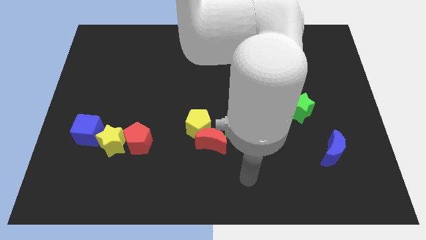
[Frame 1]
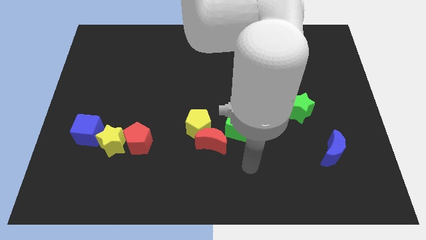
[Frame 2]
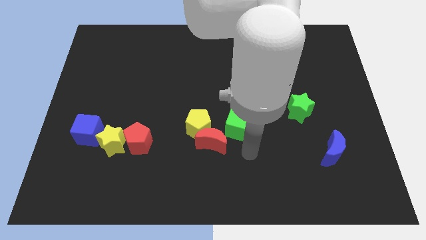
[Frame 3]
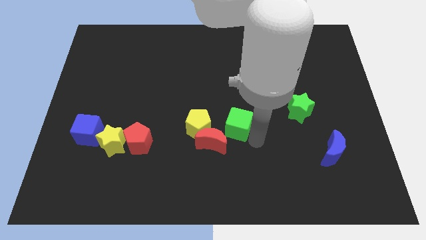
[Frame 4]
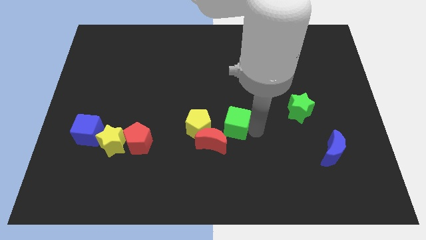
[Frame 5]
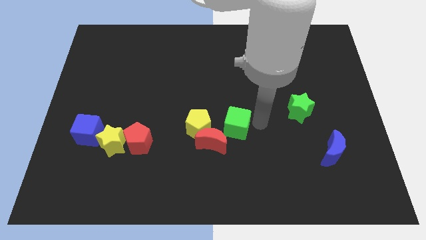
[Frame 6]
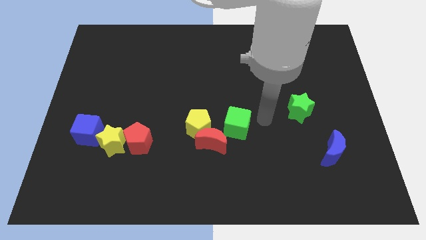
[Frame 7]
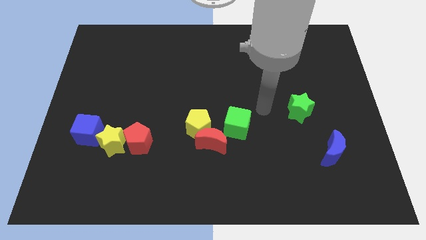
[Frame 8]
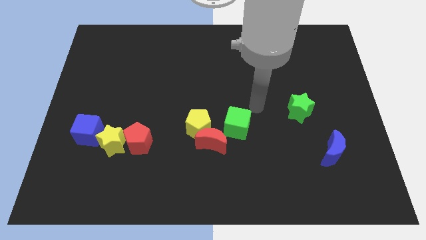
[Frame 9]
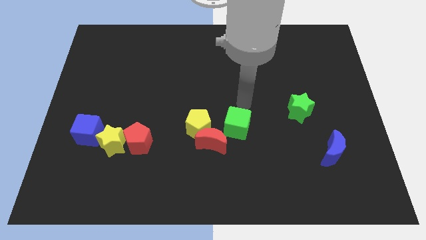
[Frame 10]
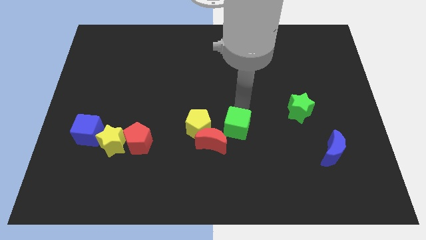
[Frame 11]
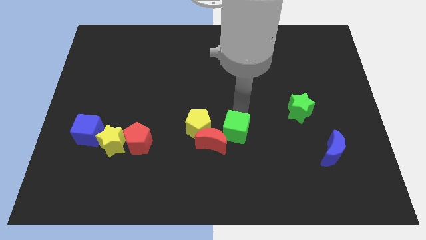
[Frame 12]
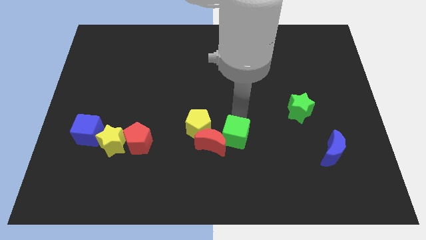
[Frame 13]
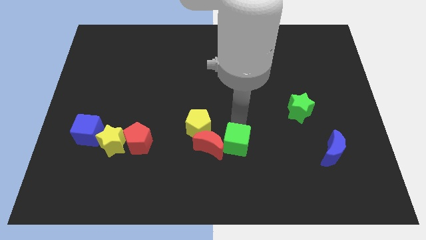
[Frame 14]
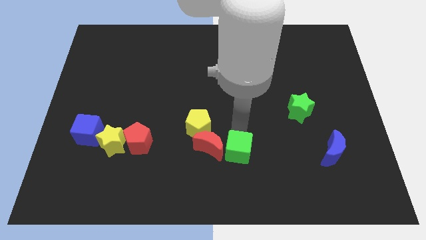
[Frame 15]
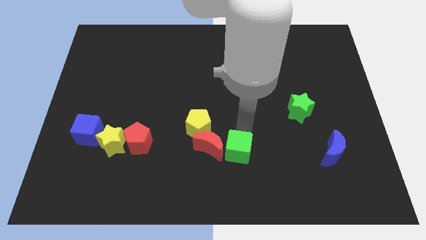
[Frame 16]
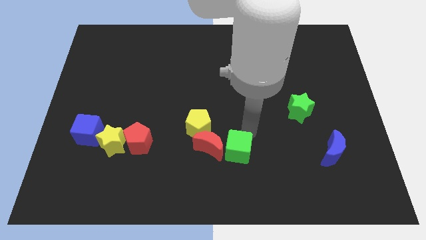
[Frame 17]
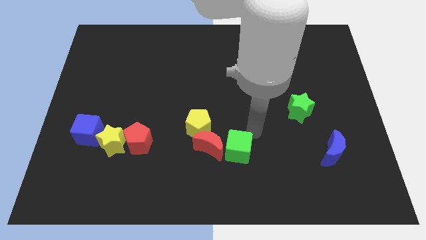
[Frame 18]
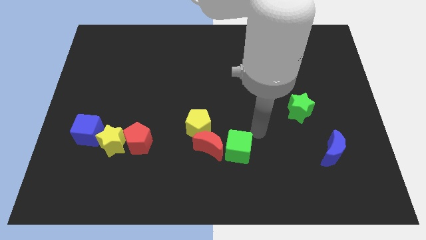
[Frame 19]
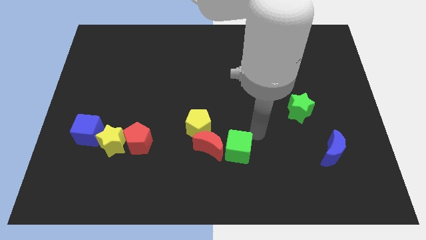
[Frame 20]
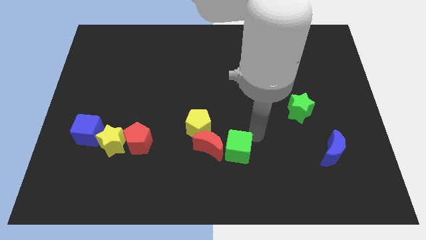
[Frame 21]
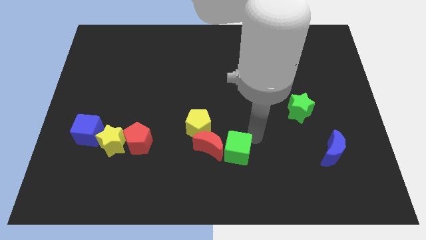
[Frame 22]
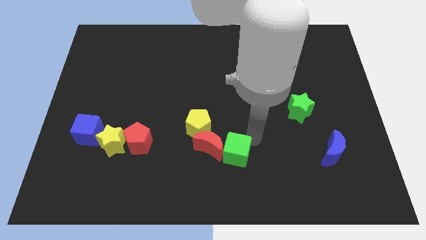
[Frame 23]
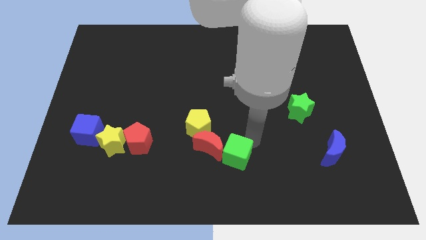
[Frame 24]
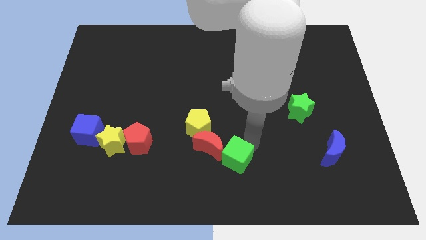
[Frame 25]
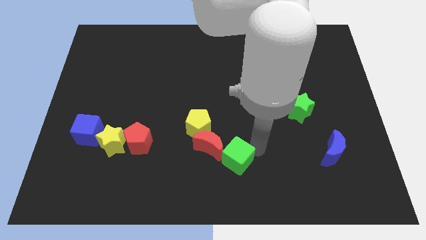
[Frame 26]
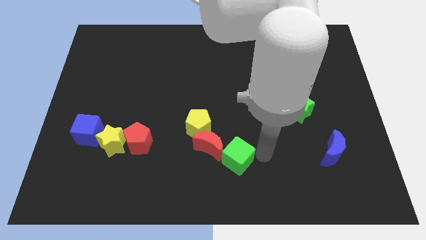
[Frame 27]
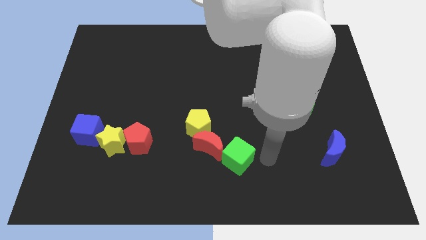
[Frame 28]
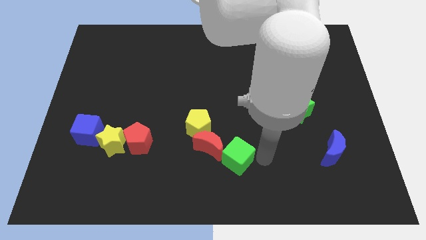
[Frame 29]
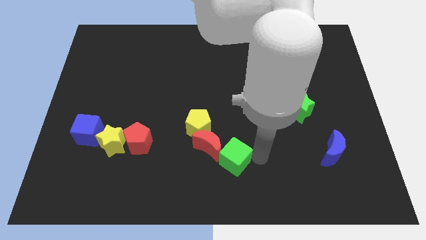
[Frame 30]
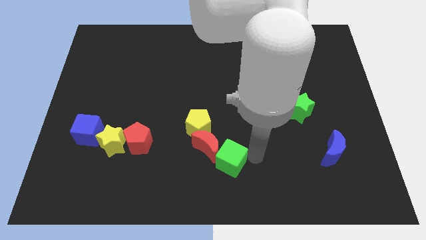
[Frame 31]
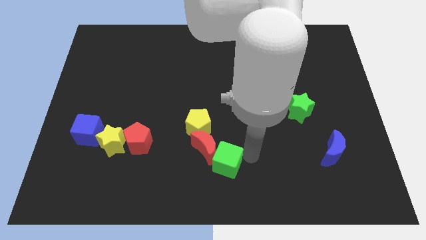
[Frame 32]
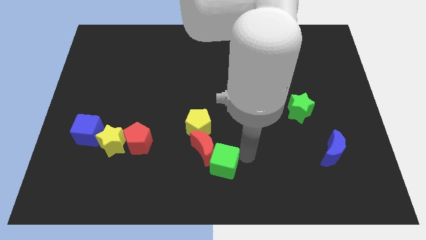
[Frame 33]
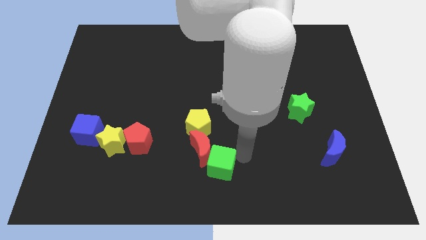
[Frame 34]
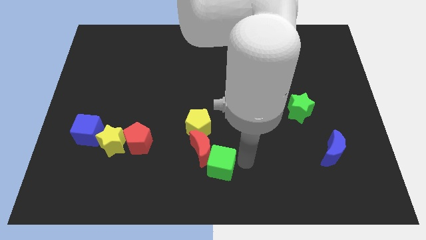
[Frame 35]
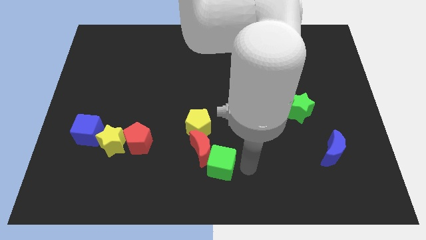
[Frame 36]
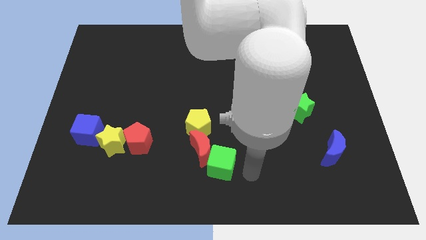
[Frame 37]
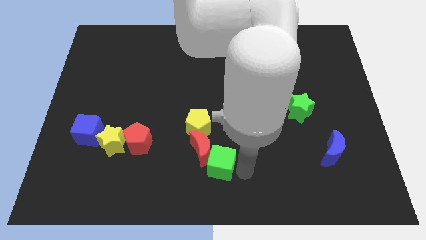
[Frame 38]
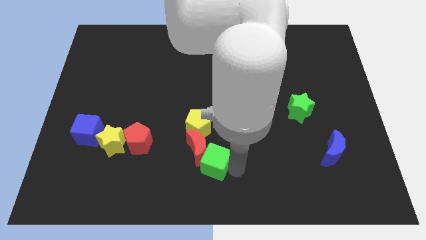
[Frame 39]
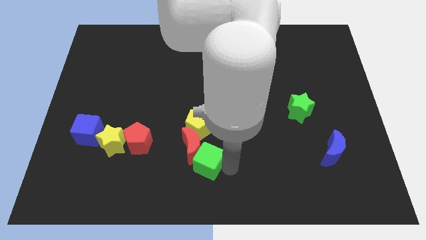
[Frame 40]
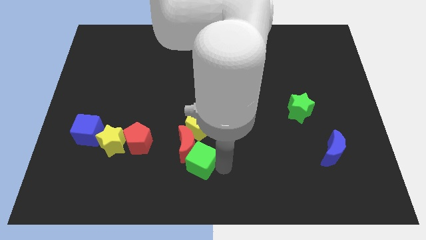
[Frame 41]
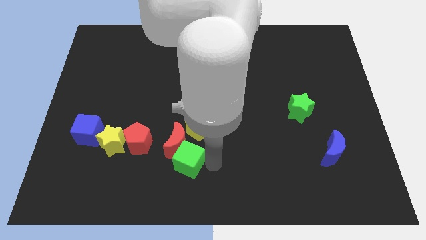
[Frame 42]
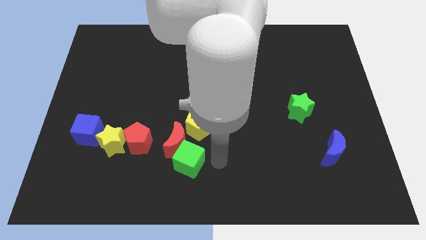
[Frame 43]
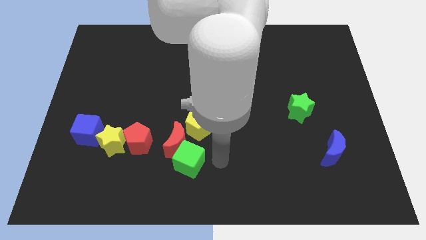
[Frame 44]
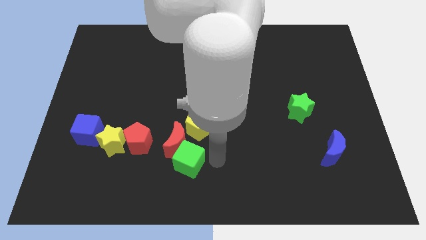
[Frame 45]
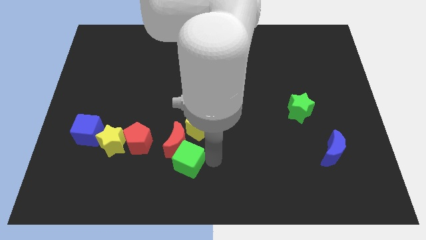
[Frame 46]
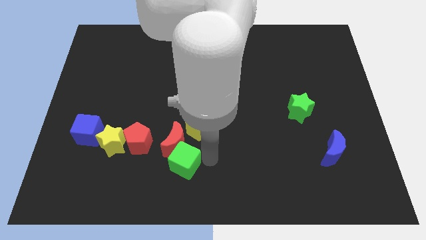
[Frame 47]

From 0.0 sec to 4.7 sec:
push the green cube to the bottom right of the red pentagon

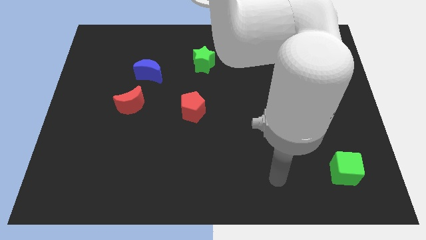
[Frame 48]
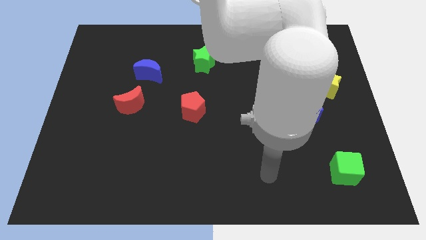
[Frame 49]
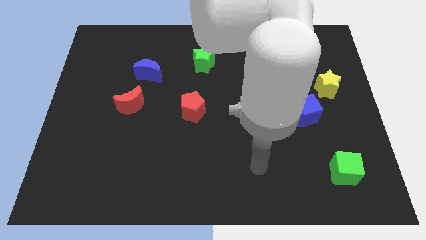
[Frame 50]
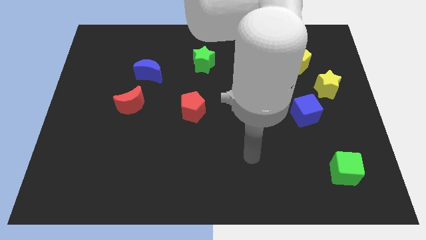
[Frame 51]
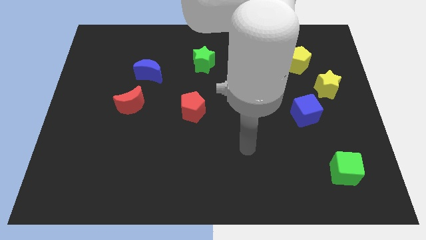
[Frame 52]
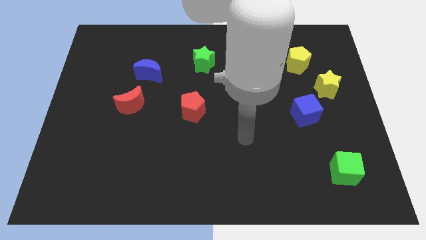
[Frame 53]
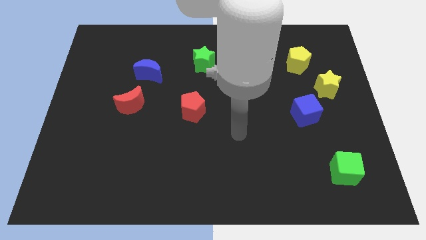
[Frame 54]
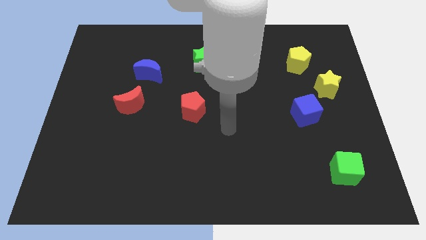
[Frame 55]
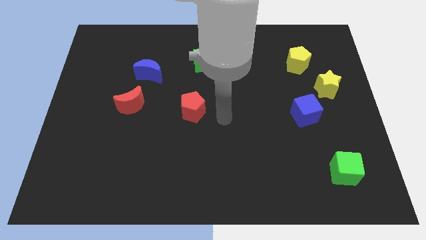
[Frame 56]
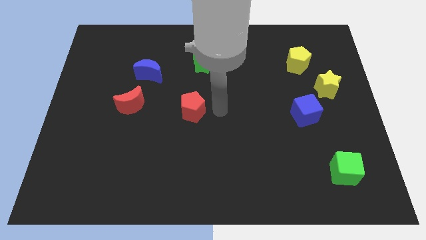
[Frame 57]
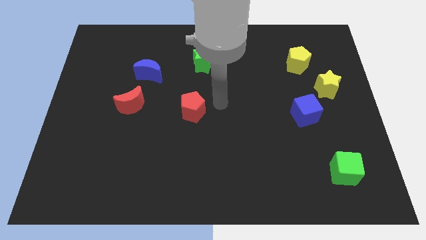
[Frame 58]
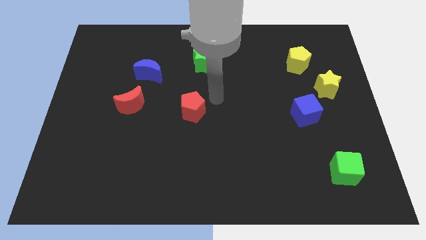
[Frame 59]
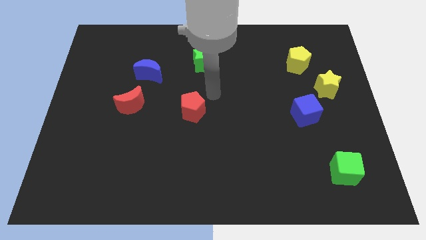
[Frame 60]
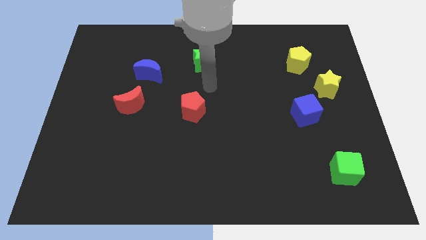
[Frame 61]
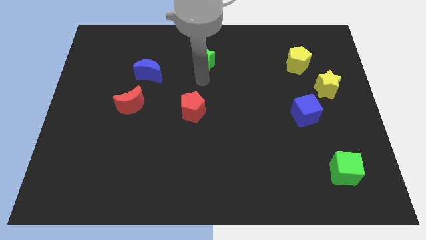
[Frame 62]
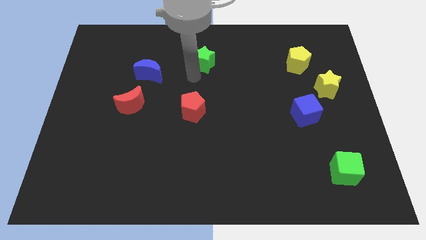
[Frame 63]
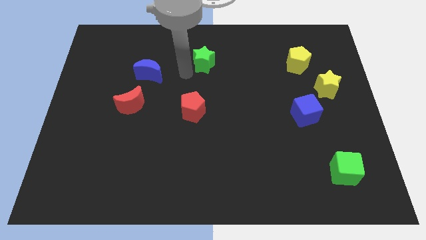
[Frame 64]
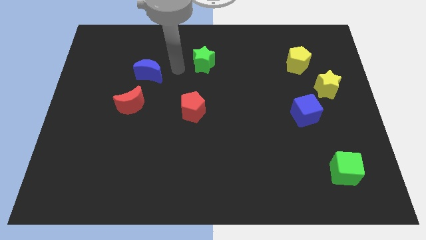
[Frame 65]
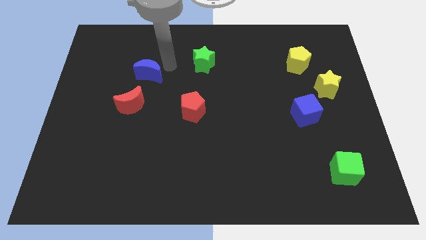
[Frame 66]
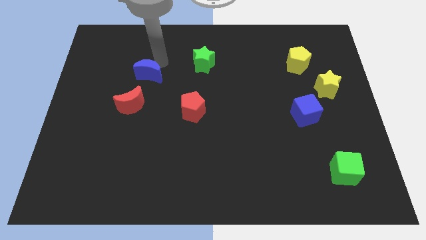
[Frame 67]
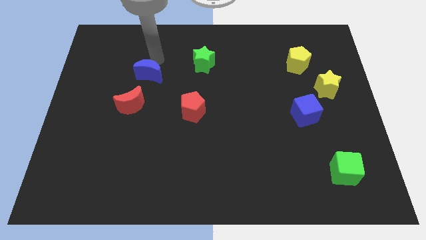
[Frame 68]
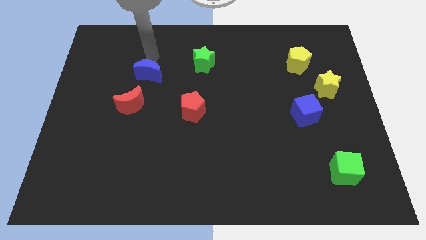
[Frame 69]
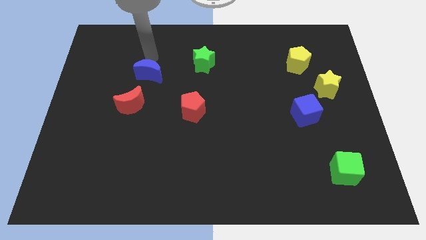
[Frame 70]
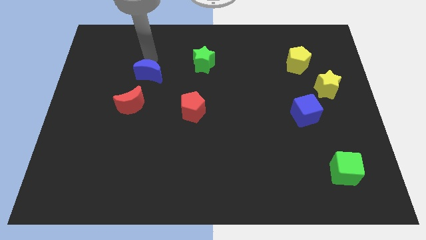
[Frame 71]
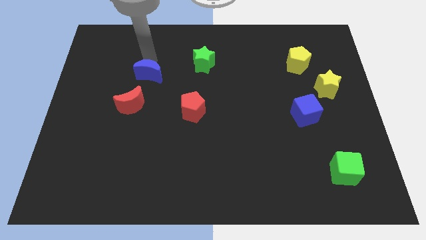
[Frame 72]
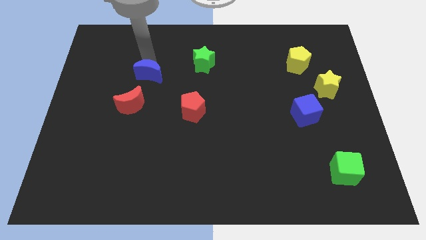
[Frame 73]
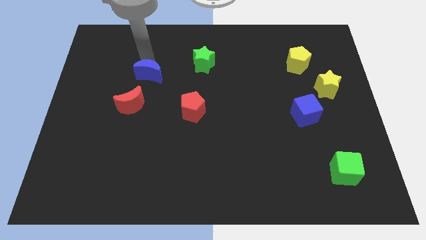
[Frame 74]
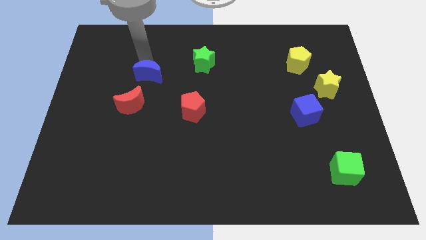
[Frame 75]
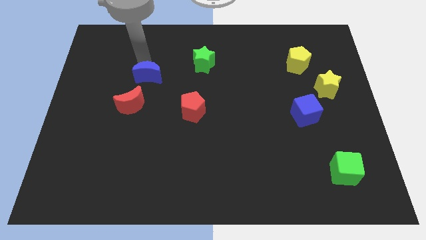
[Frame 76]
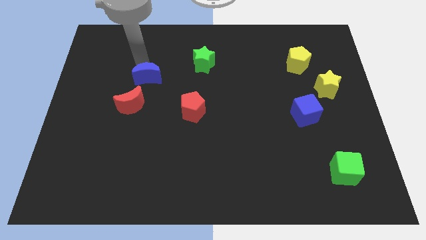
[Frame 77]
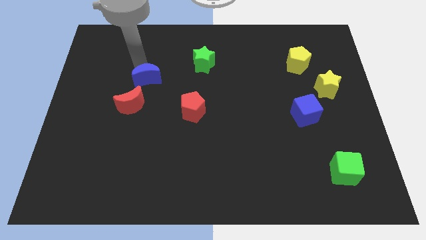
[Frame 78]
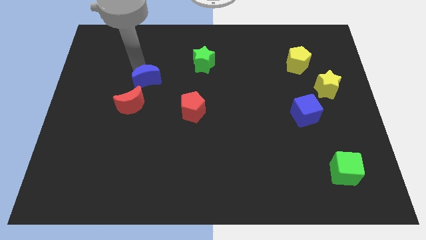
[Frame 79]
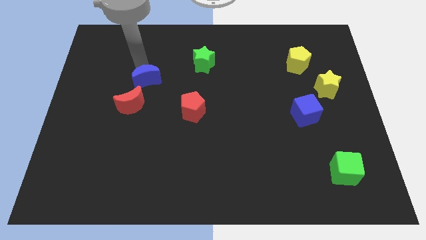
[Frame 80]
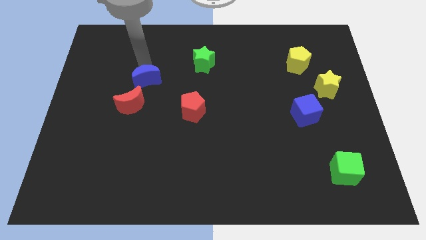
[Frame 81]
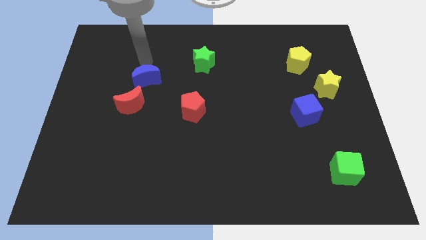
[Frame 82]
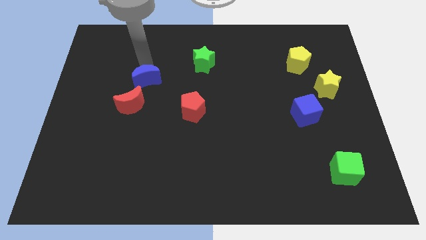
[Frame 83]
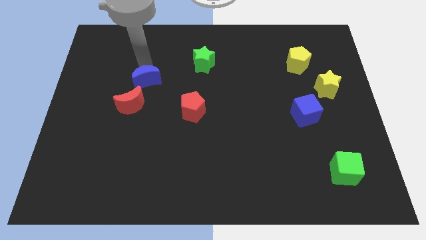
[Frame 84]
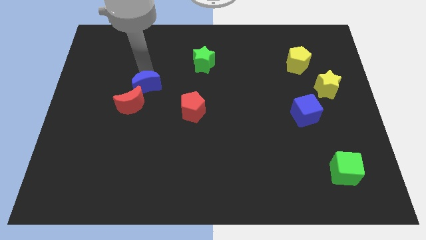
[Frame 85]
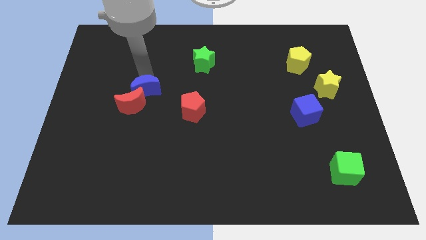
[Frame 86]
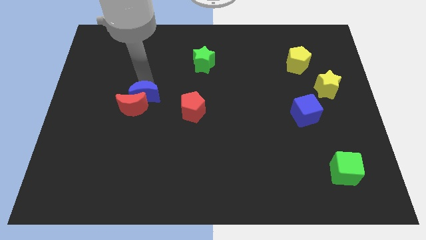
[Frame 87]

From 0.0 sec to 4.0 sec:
move the blue moon just left of the red pentagon
